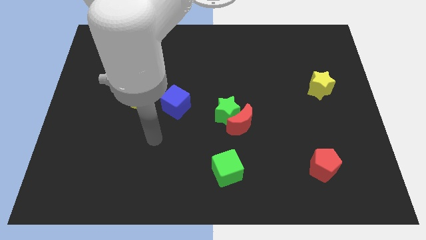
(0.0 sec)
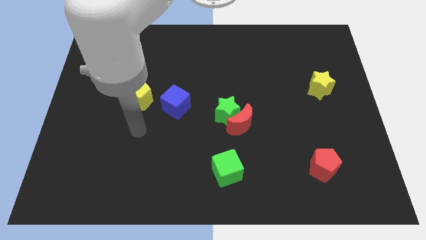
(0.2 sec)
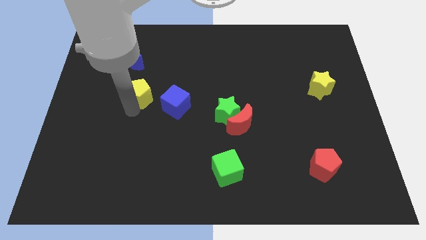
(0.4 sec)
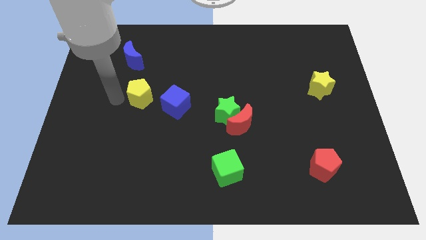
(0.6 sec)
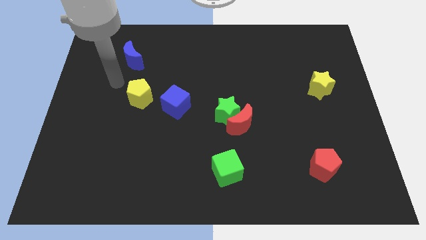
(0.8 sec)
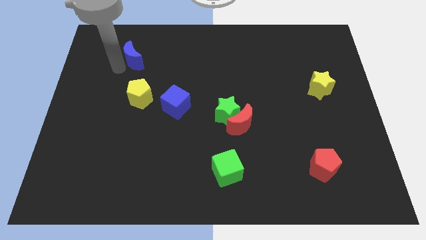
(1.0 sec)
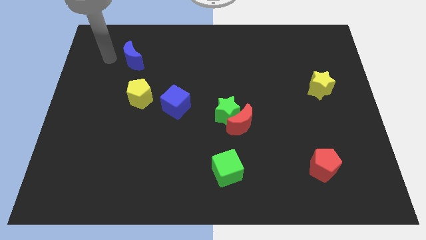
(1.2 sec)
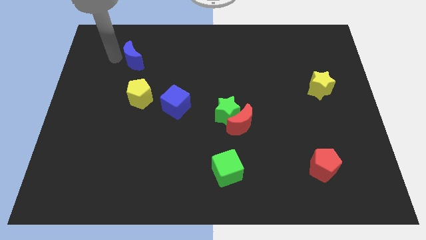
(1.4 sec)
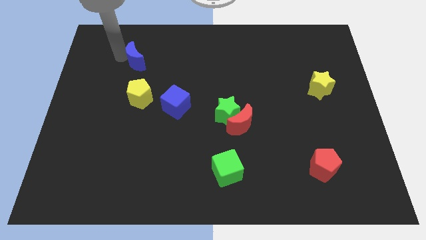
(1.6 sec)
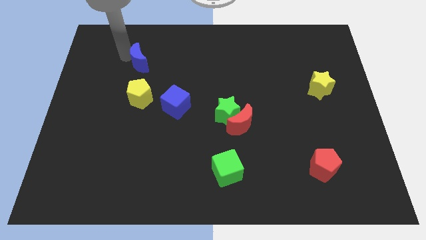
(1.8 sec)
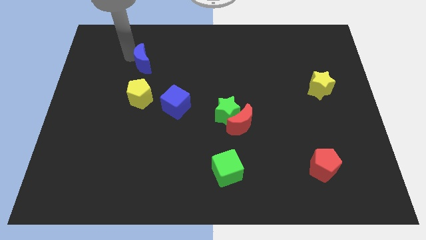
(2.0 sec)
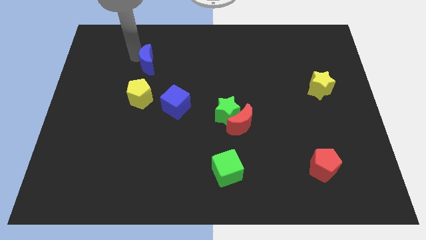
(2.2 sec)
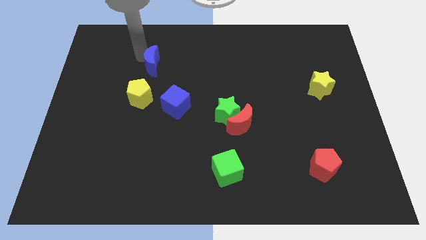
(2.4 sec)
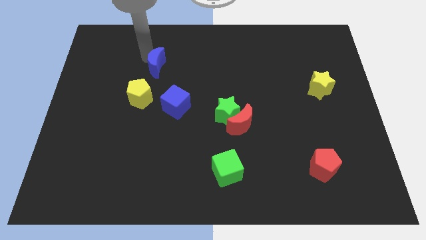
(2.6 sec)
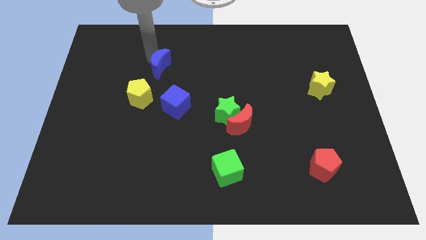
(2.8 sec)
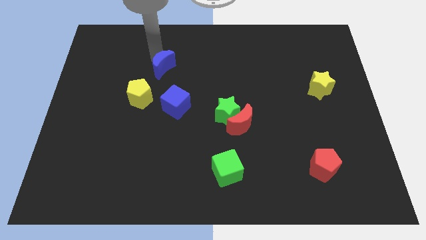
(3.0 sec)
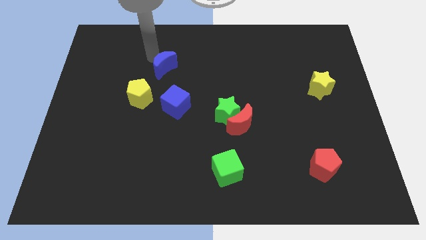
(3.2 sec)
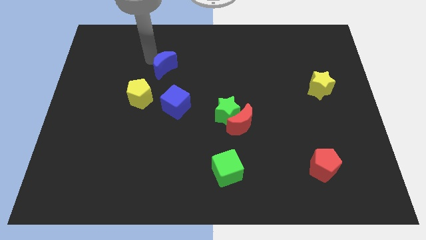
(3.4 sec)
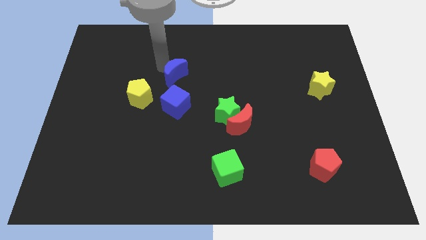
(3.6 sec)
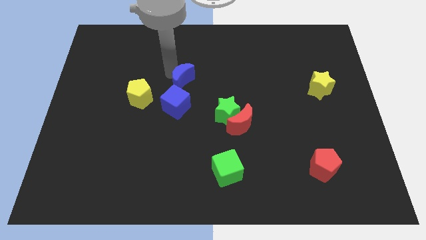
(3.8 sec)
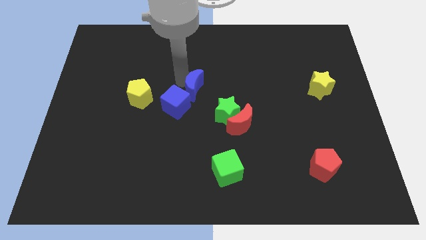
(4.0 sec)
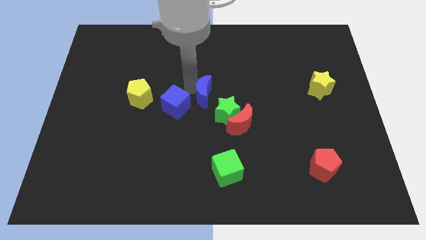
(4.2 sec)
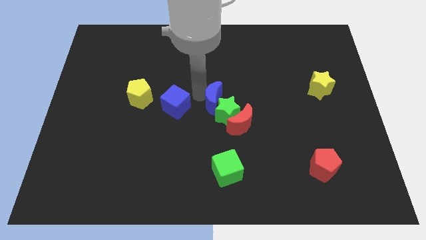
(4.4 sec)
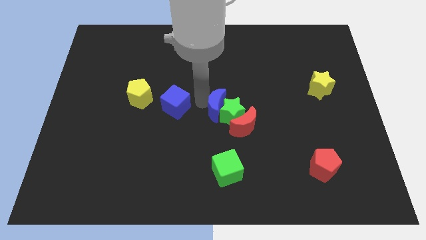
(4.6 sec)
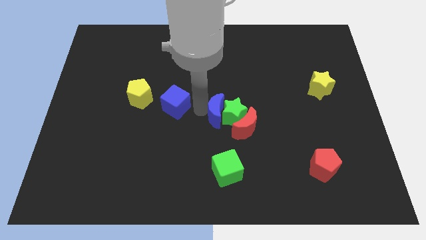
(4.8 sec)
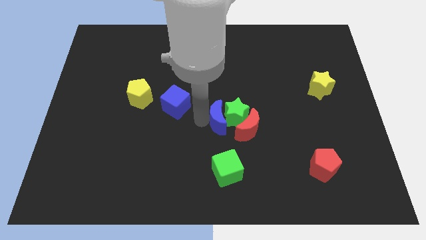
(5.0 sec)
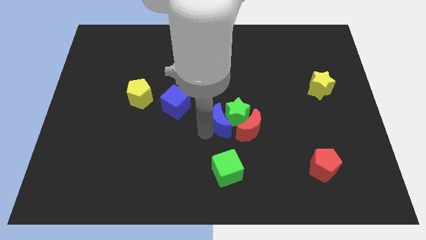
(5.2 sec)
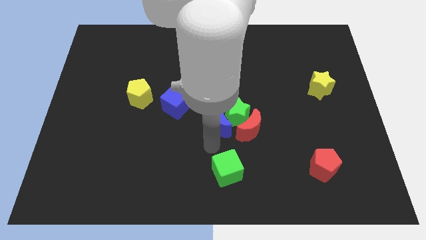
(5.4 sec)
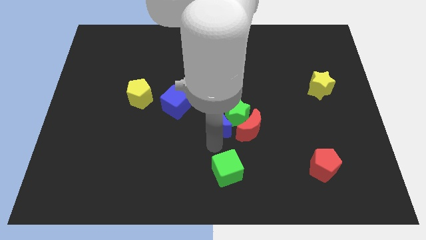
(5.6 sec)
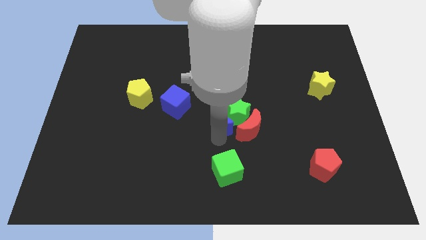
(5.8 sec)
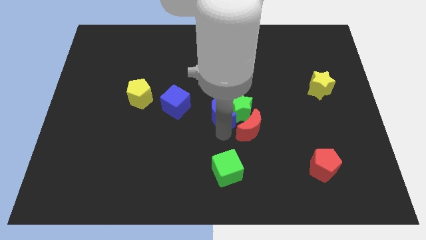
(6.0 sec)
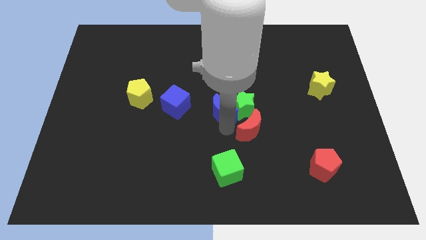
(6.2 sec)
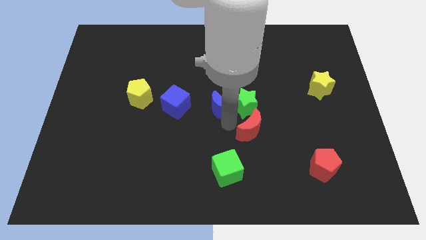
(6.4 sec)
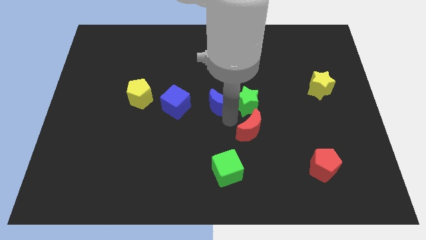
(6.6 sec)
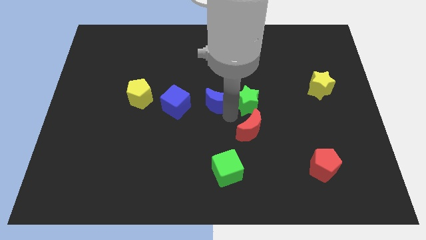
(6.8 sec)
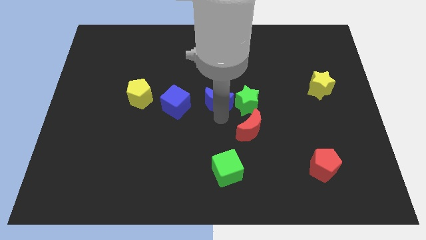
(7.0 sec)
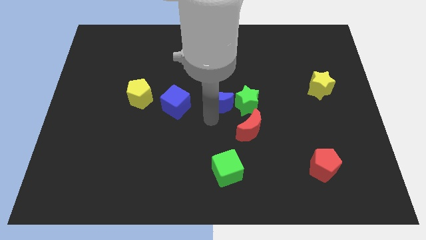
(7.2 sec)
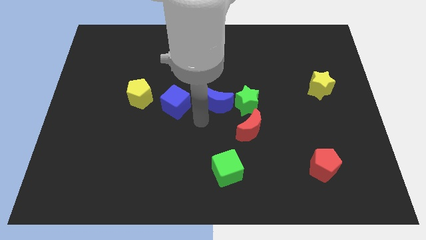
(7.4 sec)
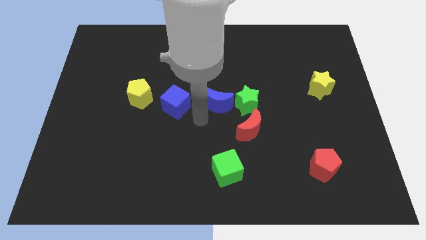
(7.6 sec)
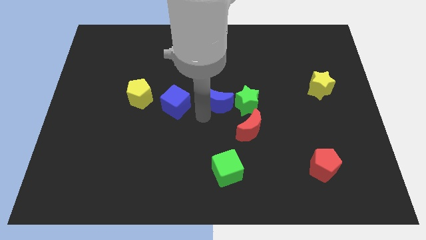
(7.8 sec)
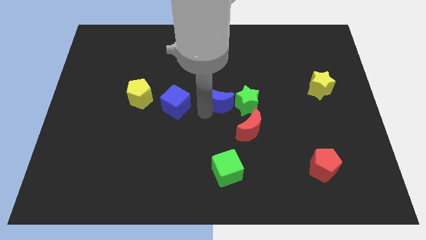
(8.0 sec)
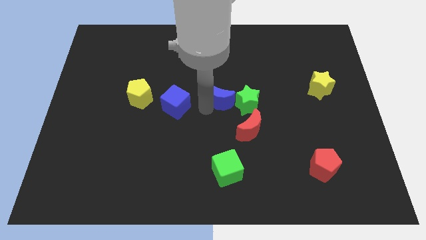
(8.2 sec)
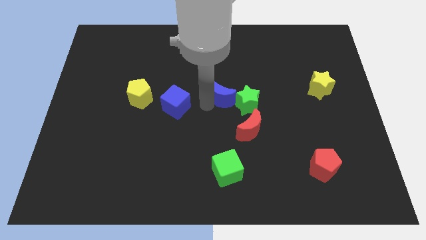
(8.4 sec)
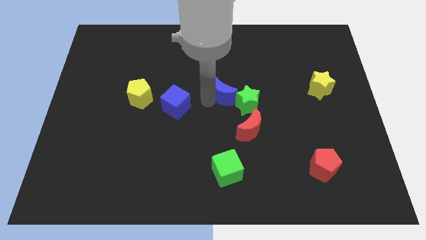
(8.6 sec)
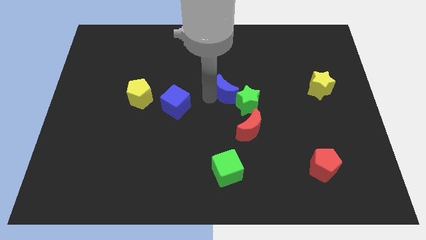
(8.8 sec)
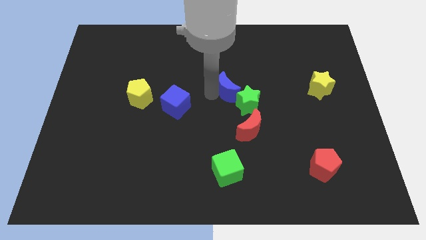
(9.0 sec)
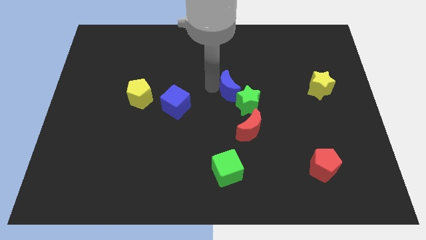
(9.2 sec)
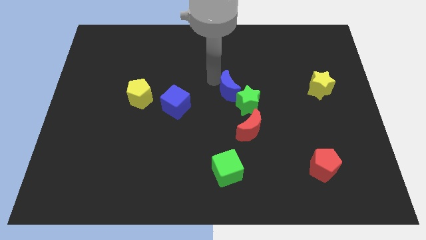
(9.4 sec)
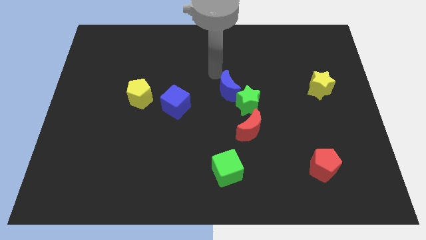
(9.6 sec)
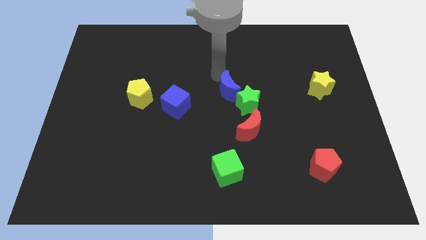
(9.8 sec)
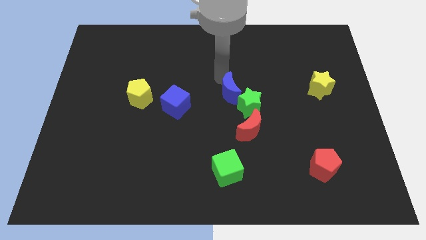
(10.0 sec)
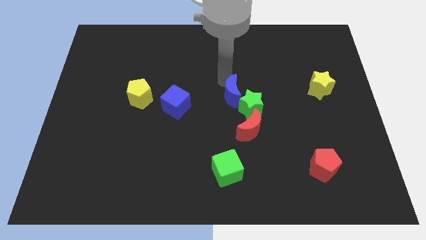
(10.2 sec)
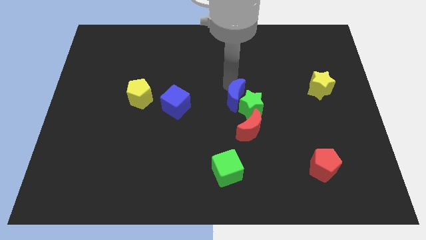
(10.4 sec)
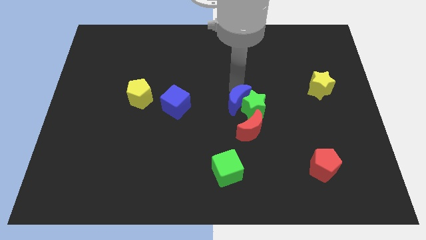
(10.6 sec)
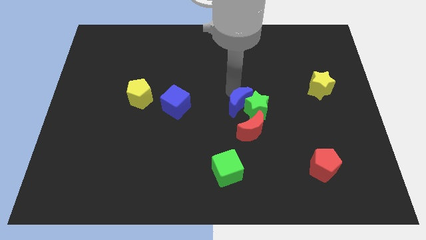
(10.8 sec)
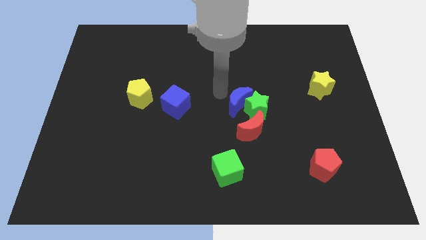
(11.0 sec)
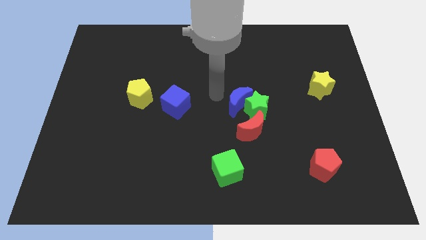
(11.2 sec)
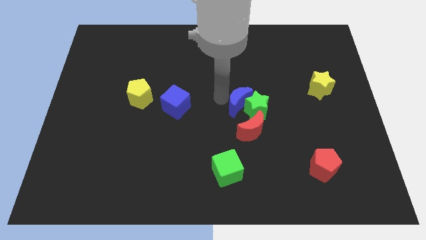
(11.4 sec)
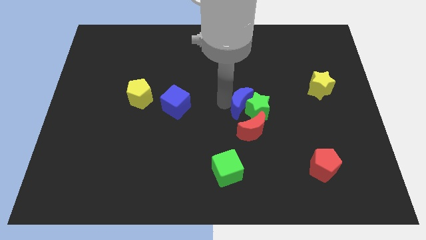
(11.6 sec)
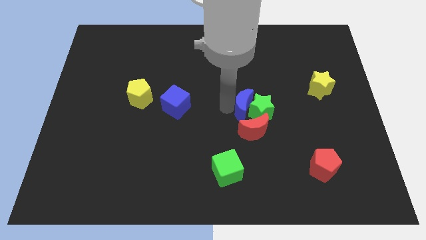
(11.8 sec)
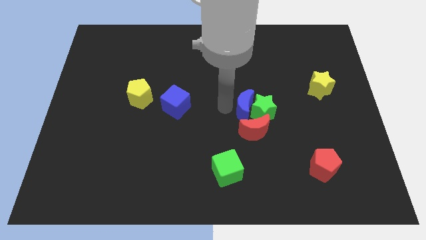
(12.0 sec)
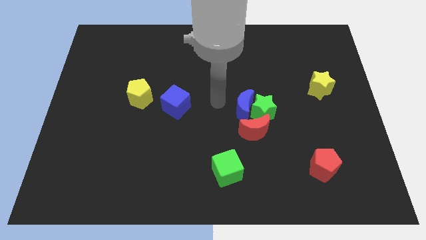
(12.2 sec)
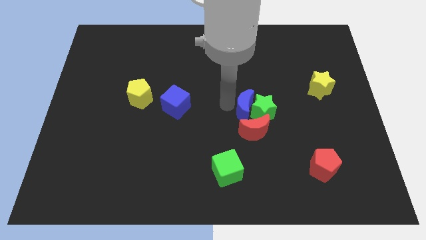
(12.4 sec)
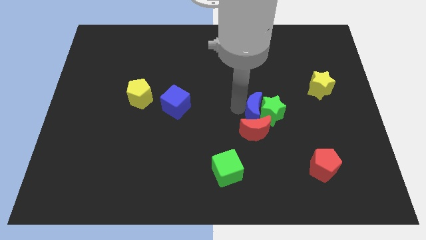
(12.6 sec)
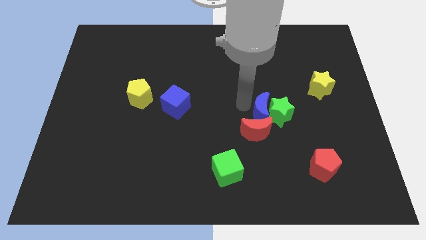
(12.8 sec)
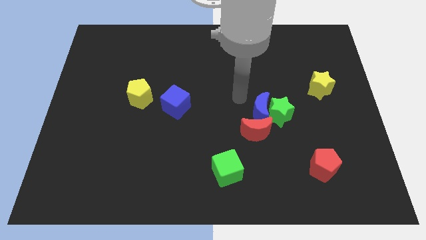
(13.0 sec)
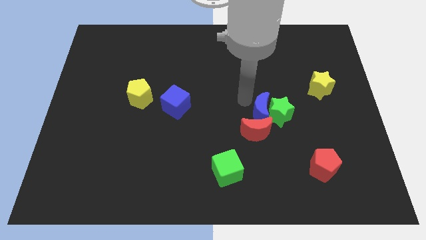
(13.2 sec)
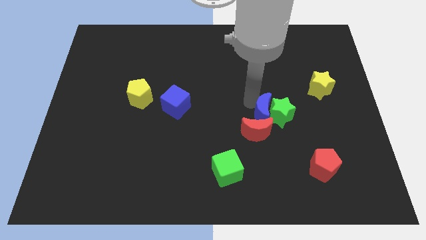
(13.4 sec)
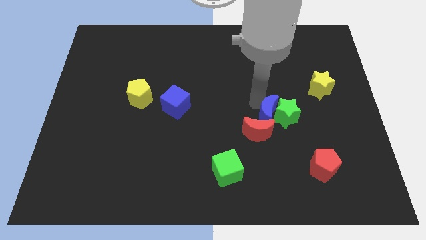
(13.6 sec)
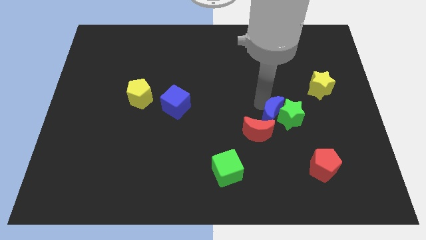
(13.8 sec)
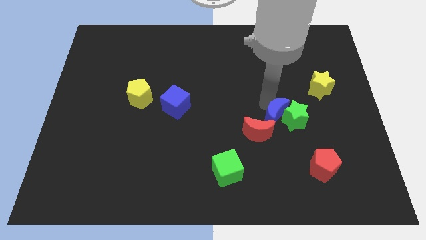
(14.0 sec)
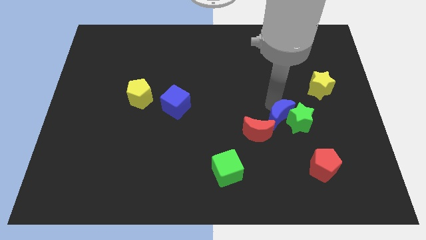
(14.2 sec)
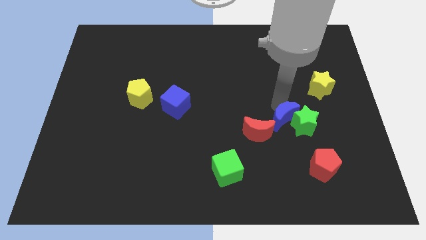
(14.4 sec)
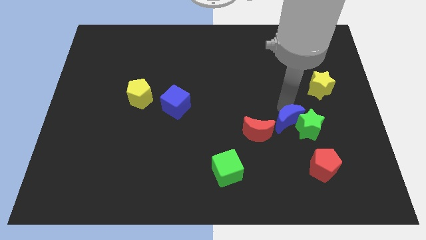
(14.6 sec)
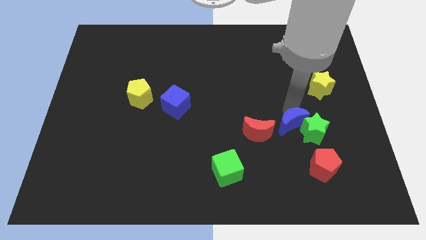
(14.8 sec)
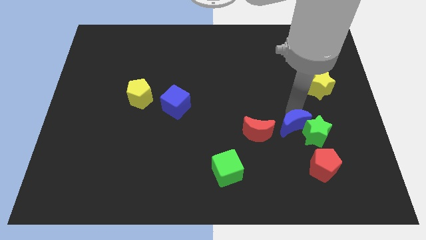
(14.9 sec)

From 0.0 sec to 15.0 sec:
slide the blue moon diagonally up and to the left of the red pentagon
